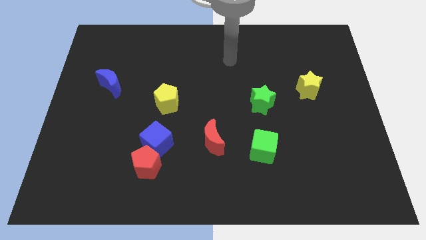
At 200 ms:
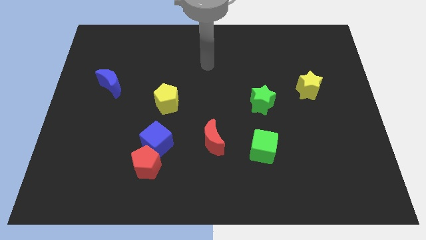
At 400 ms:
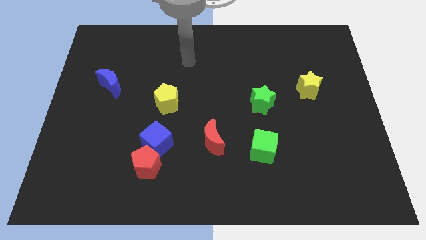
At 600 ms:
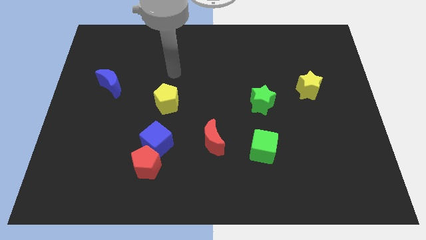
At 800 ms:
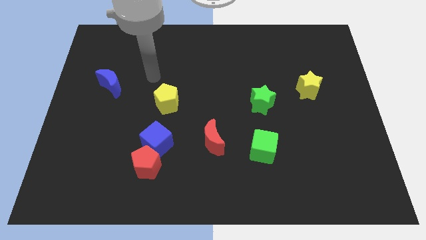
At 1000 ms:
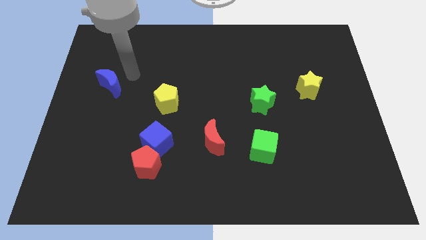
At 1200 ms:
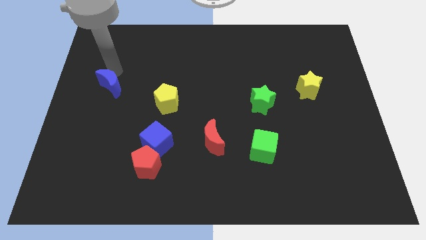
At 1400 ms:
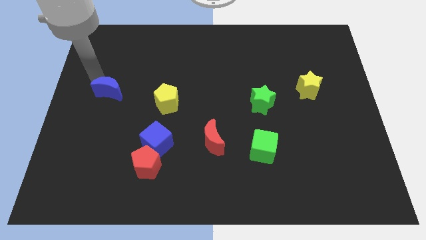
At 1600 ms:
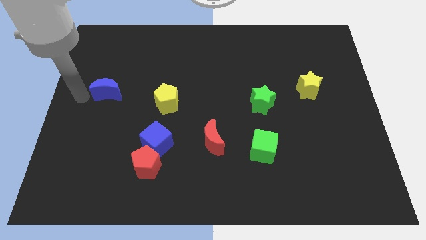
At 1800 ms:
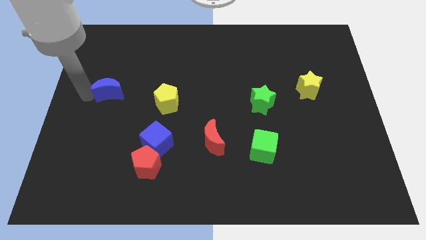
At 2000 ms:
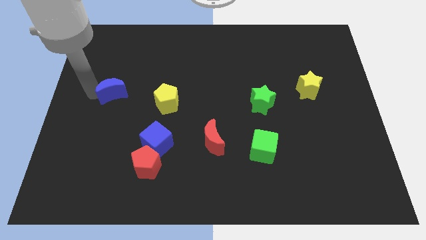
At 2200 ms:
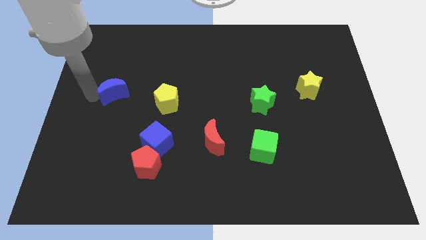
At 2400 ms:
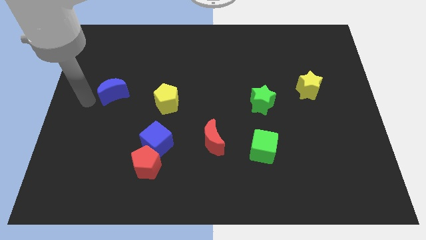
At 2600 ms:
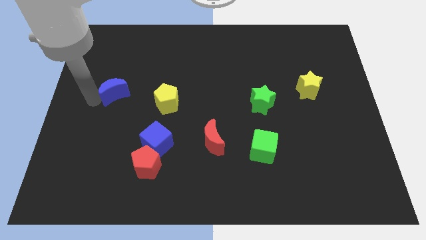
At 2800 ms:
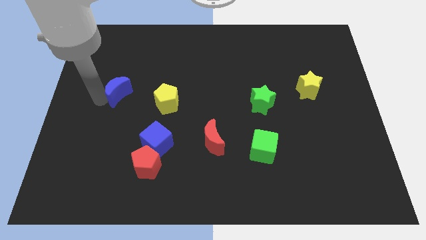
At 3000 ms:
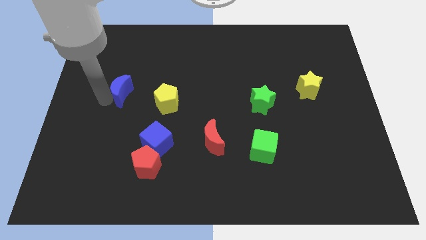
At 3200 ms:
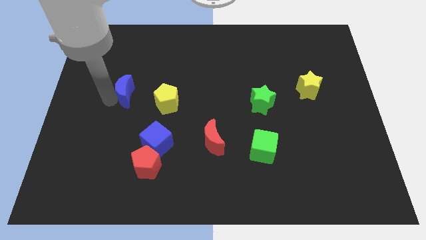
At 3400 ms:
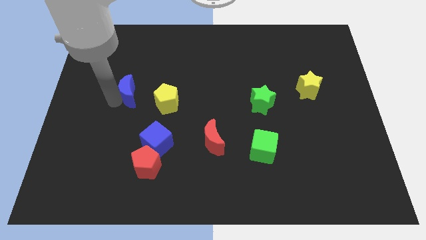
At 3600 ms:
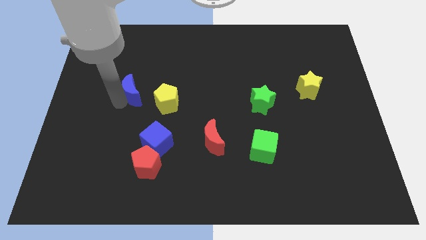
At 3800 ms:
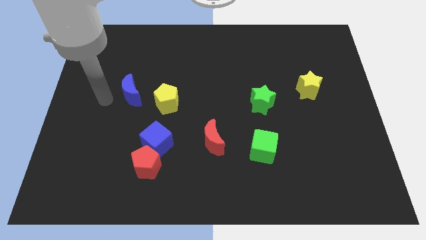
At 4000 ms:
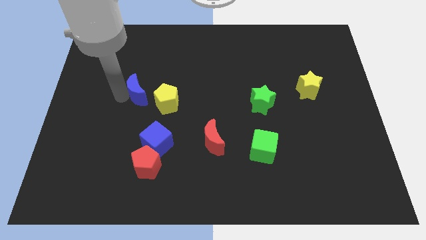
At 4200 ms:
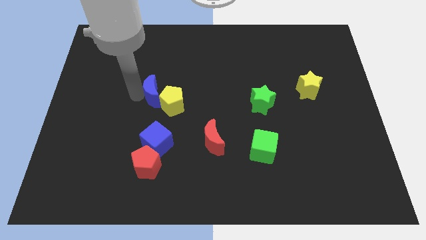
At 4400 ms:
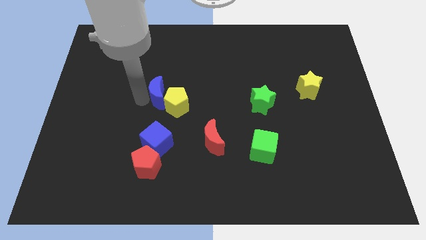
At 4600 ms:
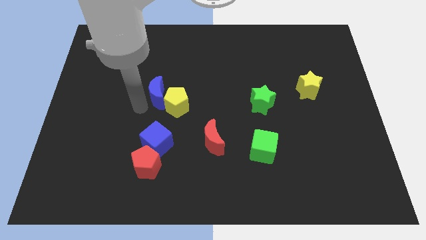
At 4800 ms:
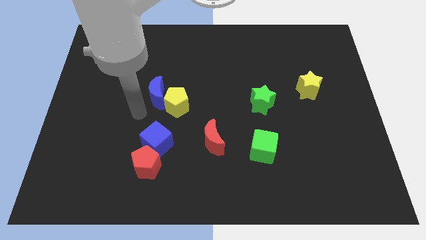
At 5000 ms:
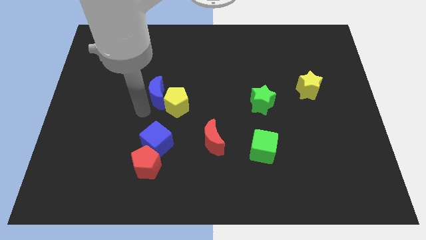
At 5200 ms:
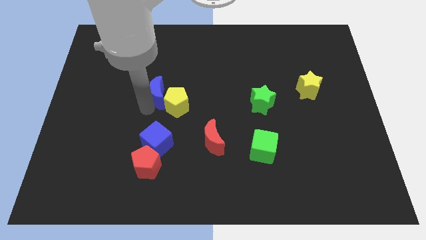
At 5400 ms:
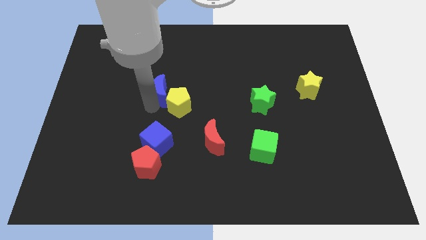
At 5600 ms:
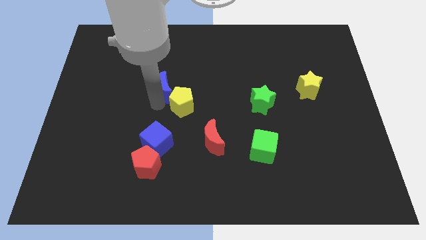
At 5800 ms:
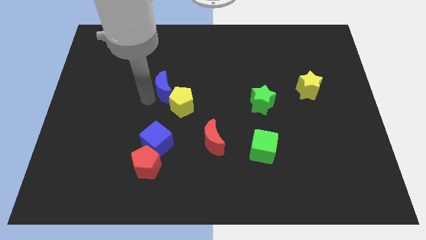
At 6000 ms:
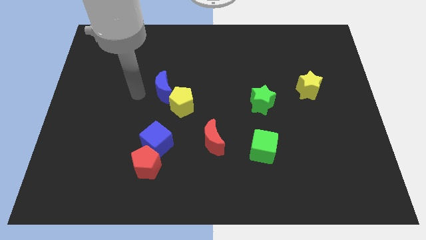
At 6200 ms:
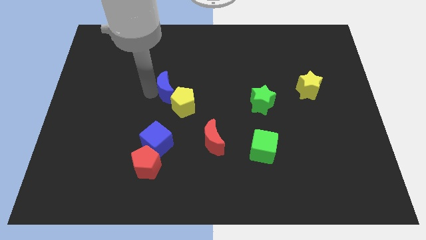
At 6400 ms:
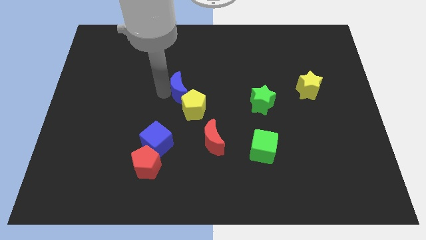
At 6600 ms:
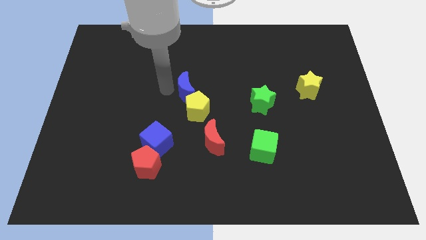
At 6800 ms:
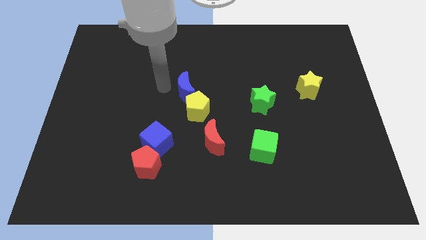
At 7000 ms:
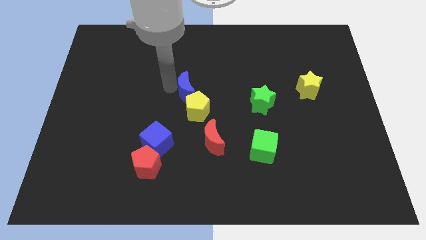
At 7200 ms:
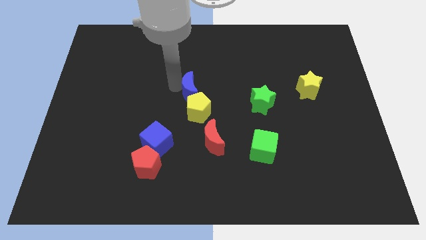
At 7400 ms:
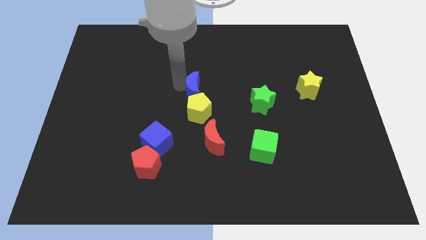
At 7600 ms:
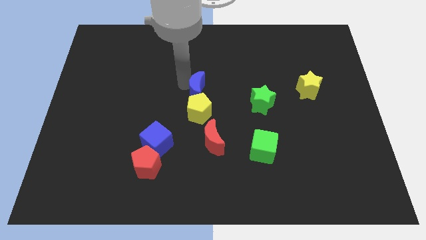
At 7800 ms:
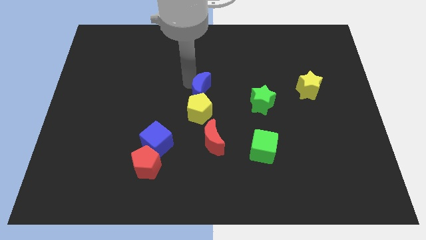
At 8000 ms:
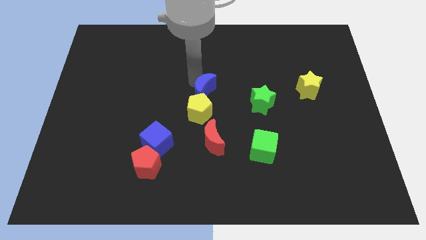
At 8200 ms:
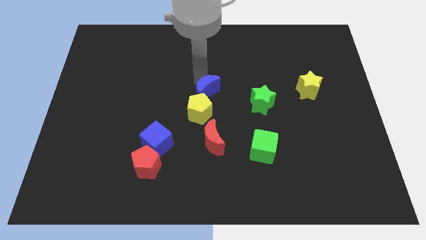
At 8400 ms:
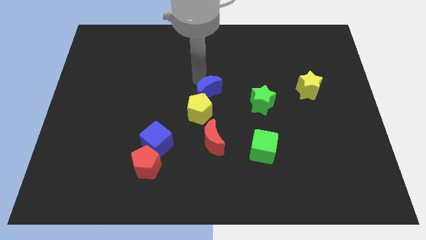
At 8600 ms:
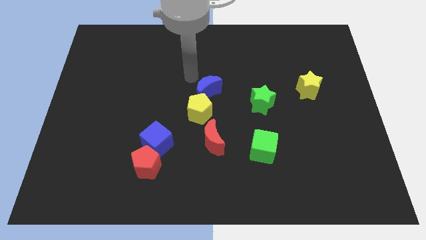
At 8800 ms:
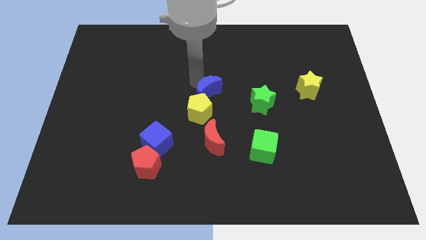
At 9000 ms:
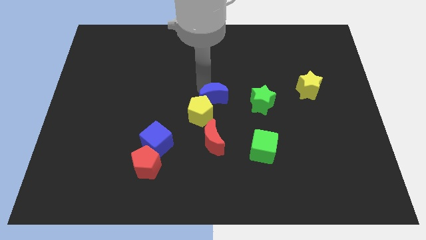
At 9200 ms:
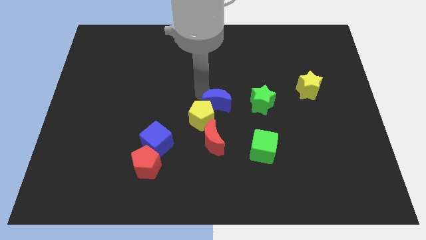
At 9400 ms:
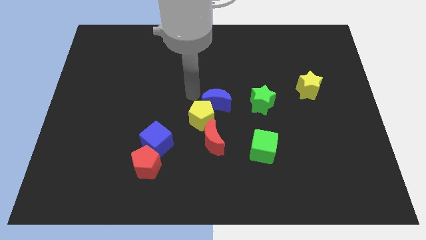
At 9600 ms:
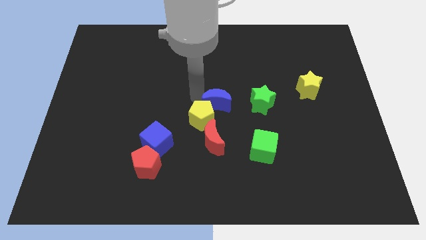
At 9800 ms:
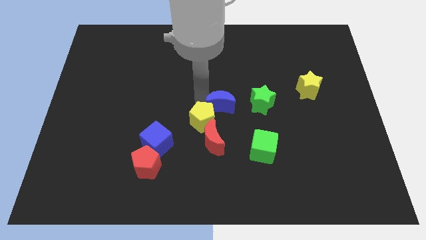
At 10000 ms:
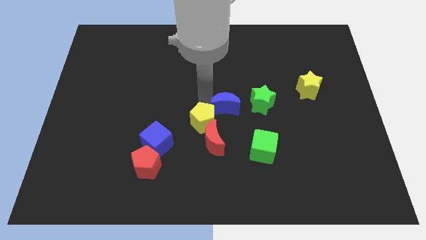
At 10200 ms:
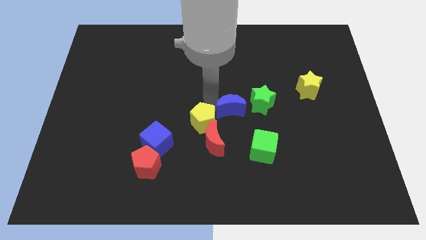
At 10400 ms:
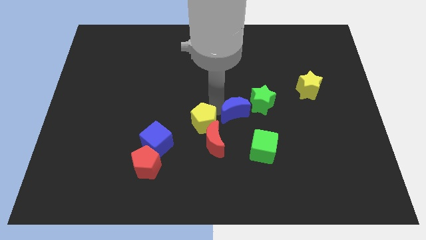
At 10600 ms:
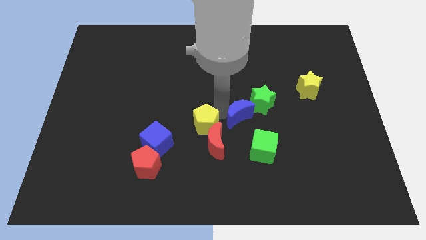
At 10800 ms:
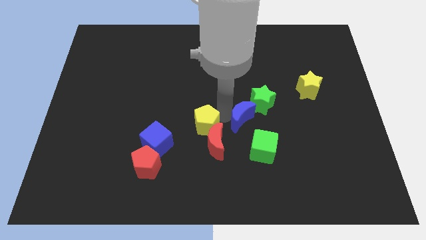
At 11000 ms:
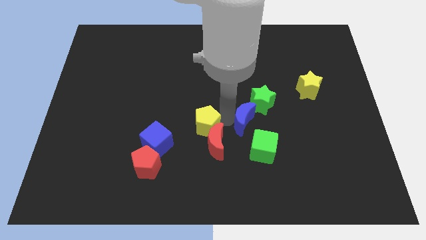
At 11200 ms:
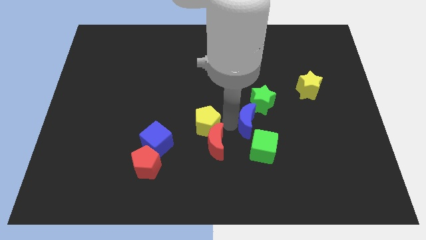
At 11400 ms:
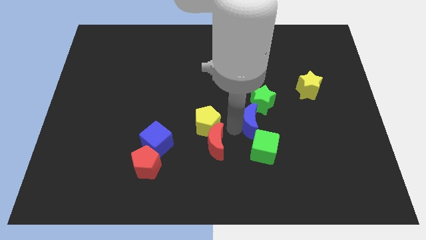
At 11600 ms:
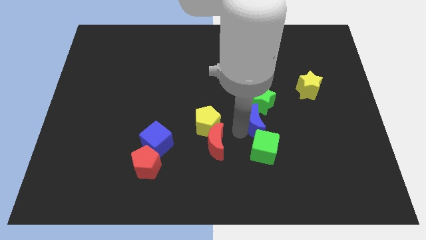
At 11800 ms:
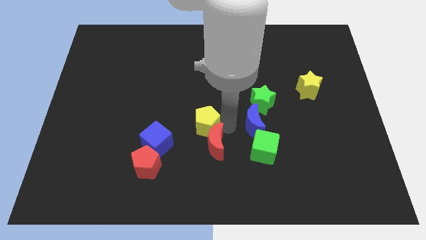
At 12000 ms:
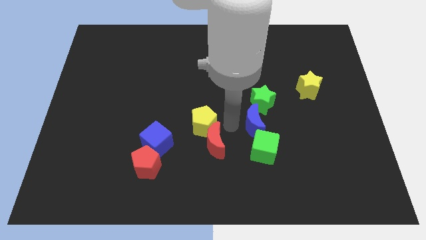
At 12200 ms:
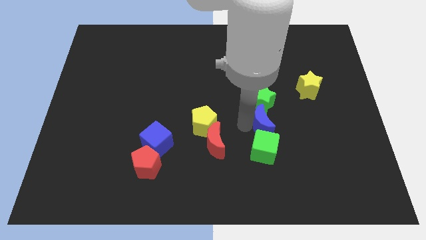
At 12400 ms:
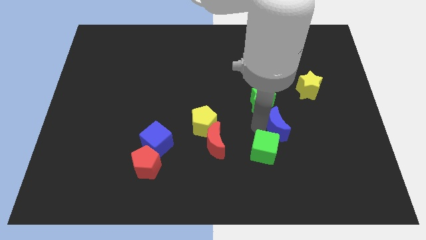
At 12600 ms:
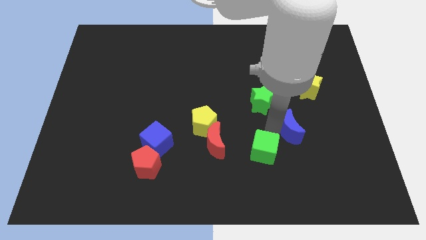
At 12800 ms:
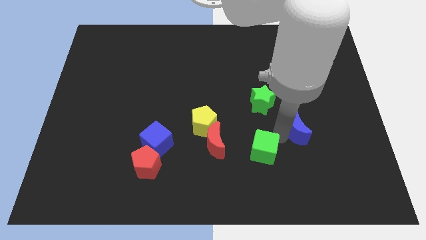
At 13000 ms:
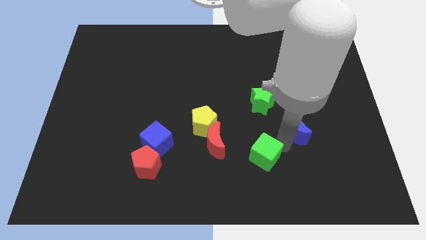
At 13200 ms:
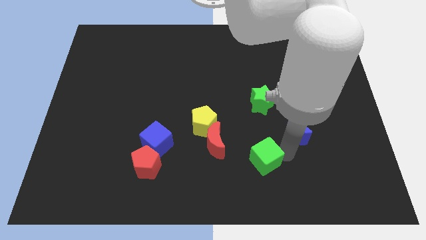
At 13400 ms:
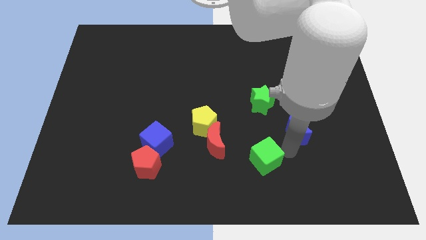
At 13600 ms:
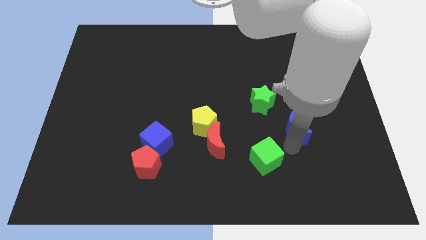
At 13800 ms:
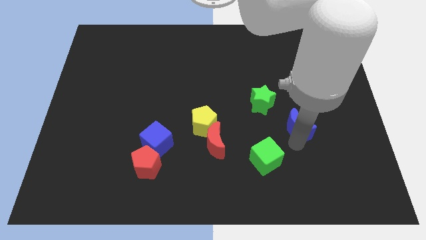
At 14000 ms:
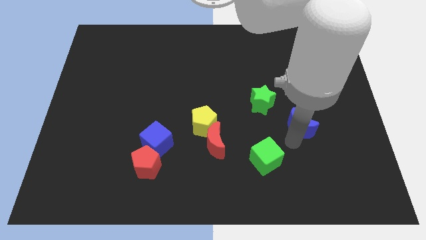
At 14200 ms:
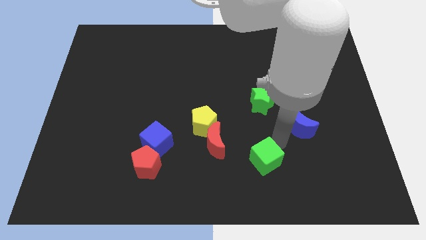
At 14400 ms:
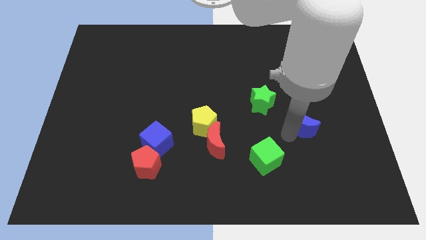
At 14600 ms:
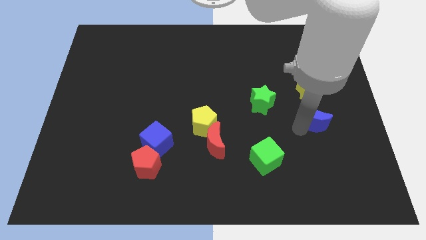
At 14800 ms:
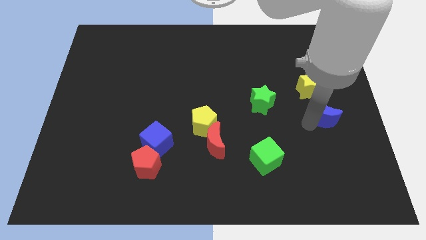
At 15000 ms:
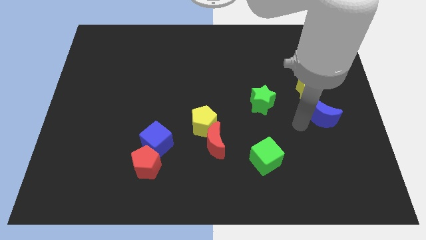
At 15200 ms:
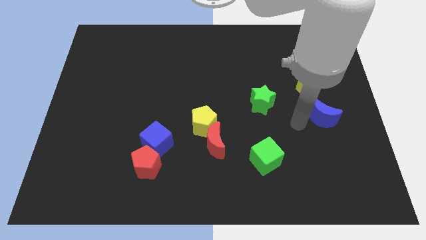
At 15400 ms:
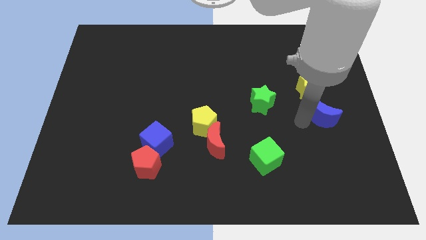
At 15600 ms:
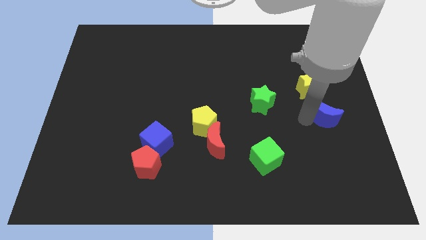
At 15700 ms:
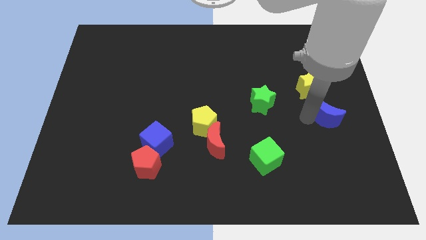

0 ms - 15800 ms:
slide the blue moon to the right side of the board
